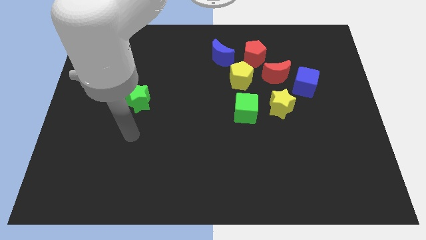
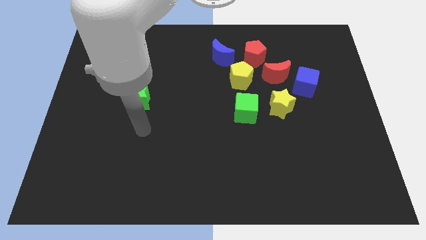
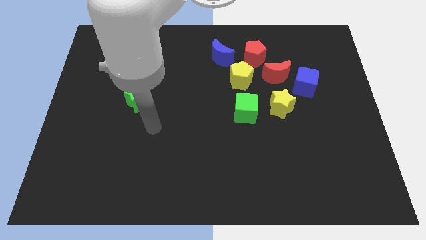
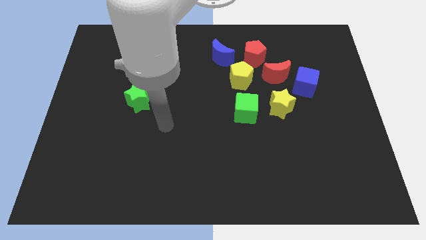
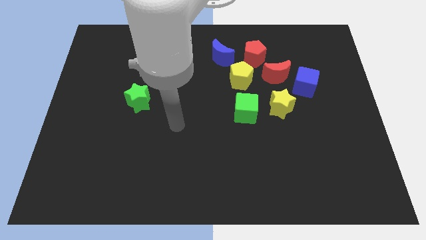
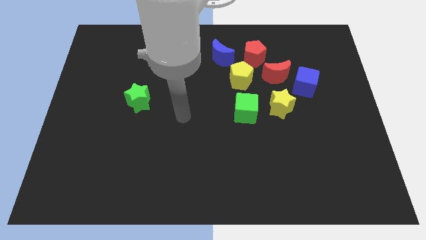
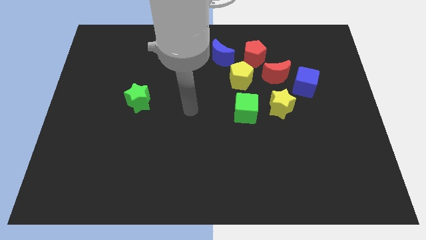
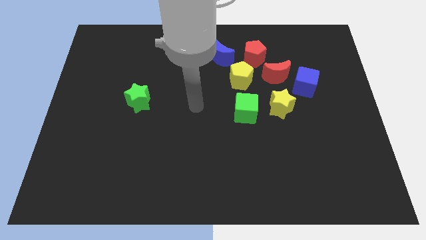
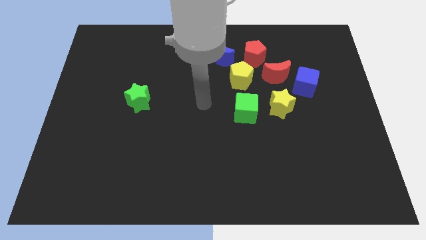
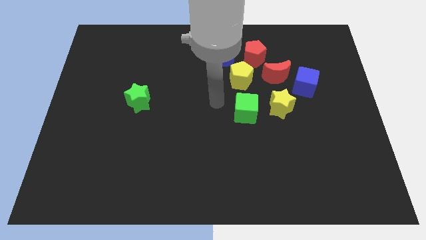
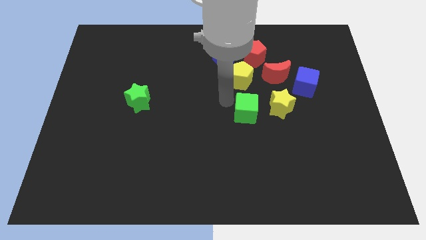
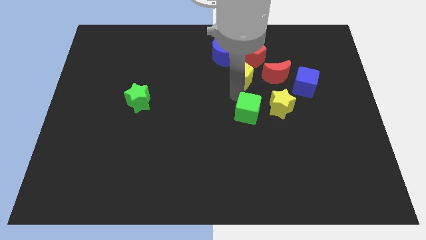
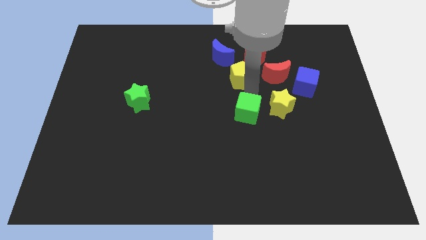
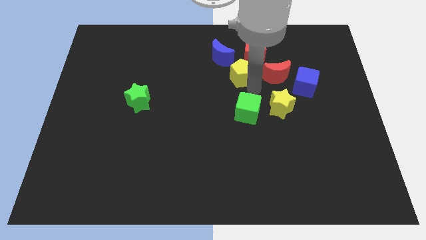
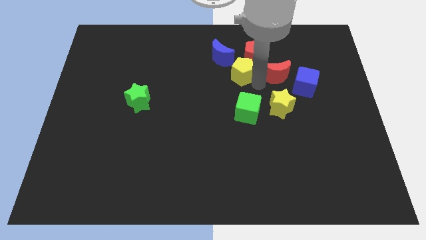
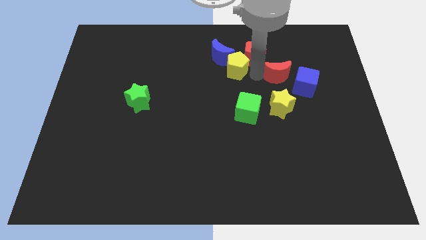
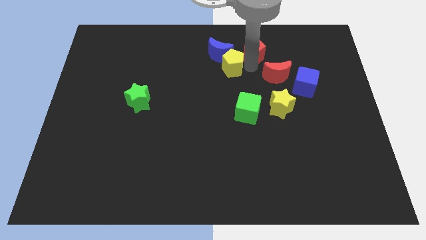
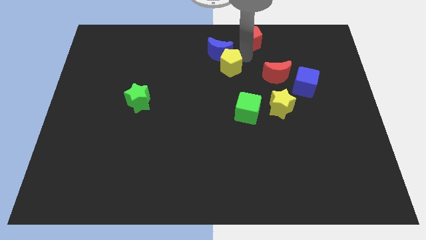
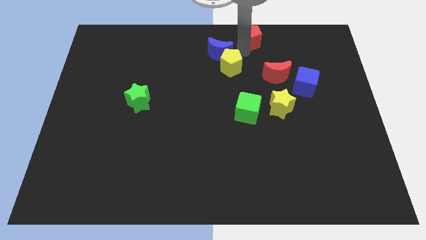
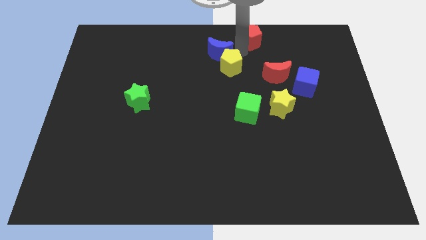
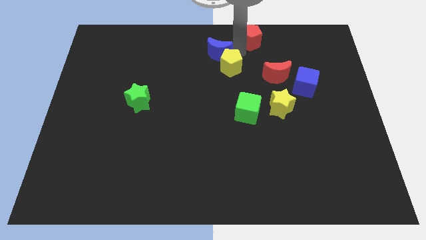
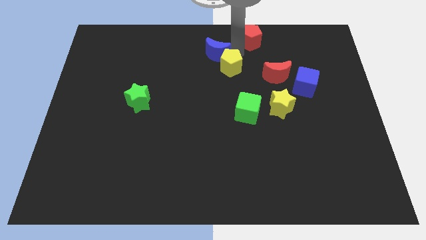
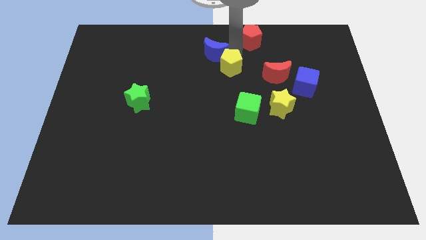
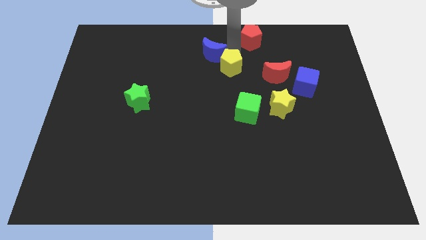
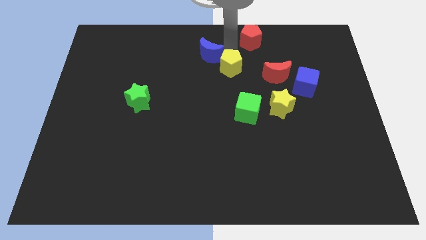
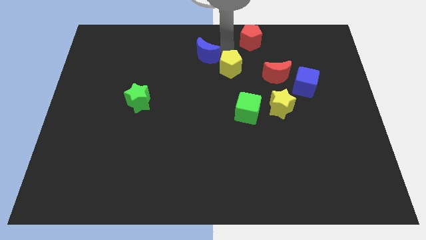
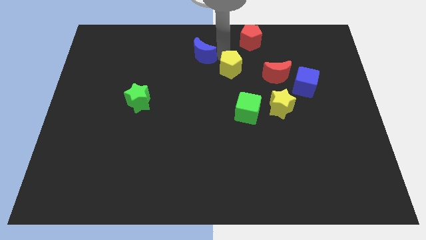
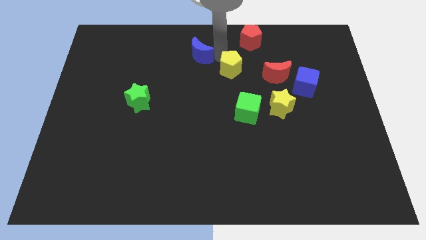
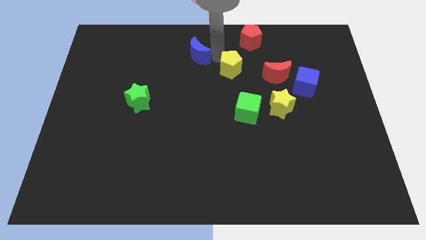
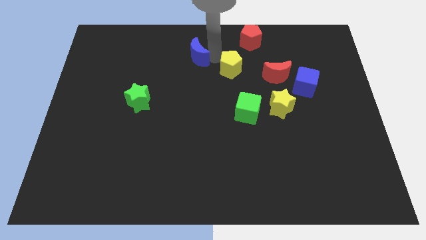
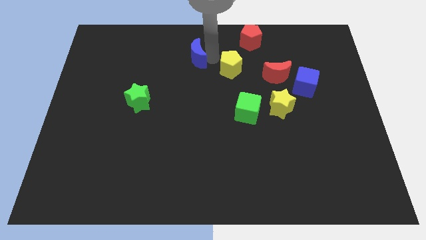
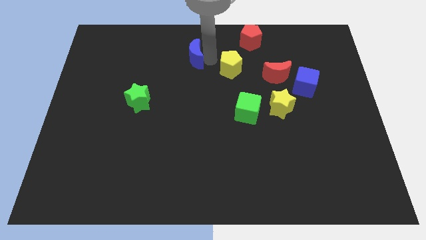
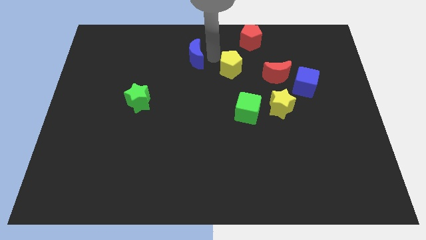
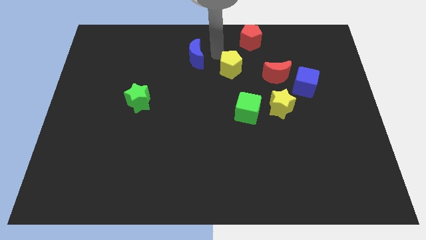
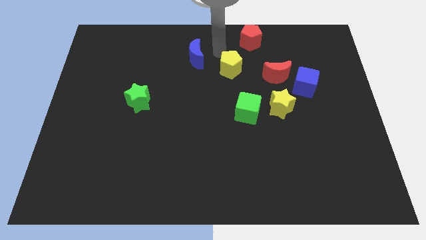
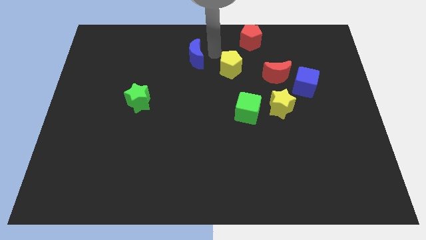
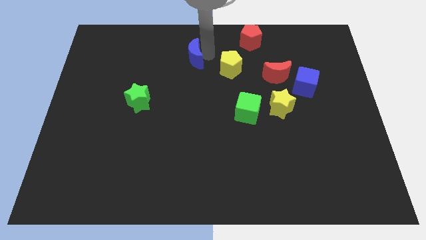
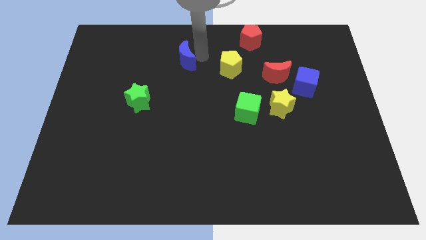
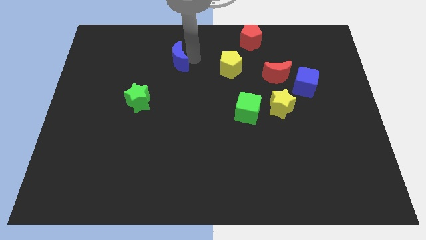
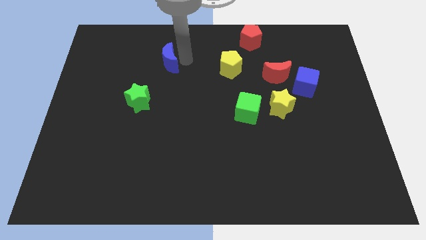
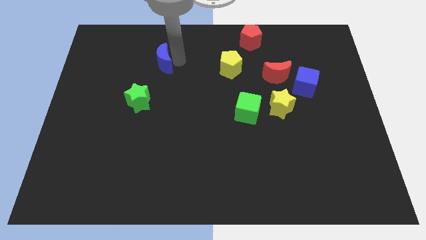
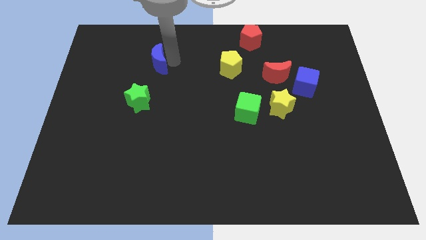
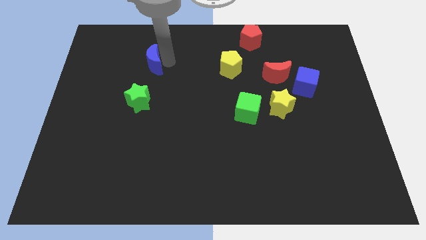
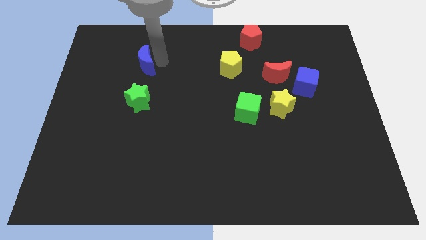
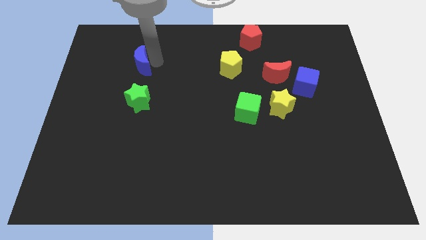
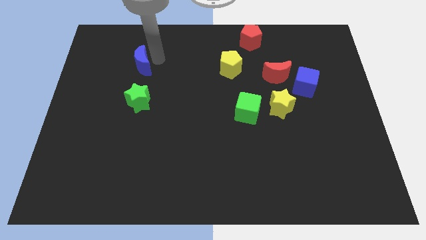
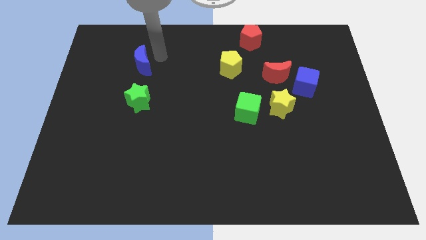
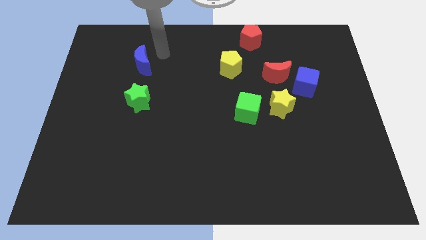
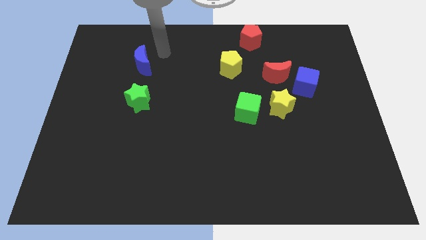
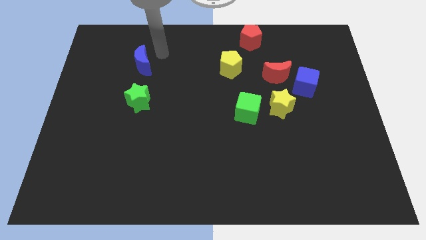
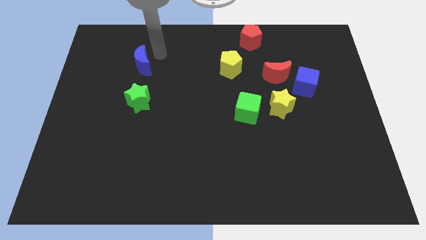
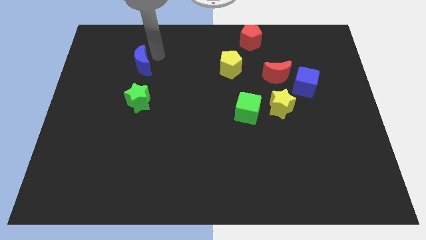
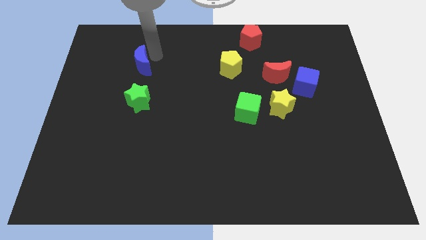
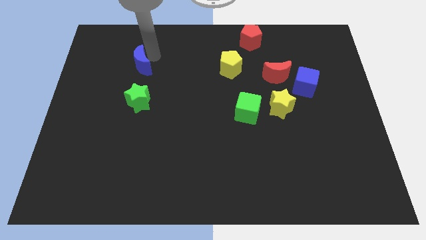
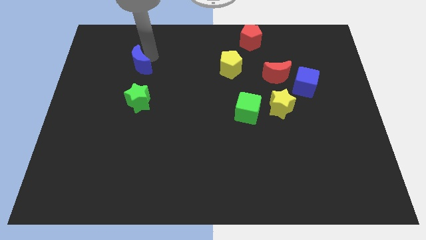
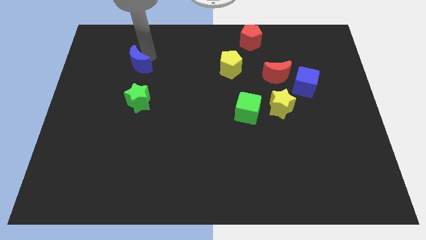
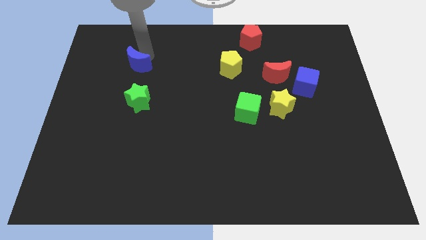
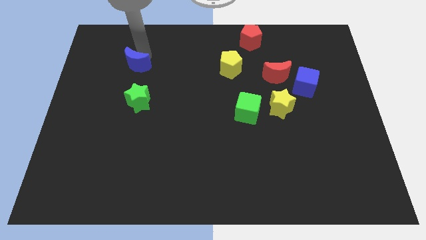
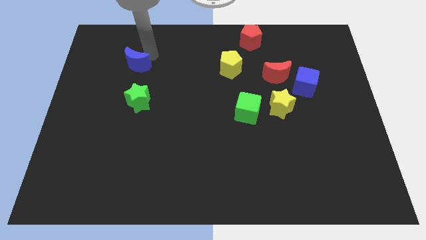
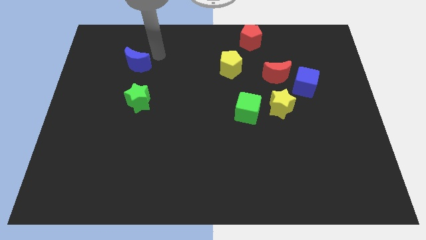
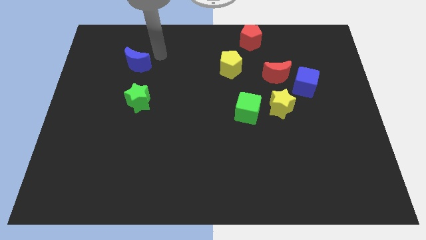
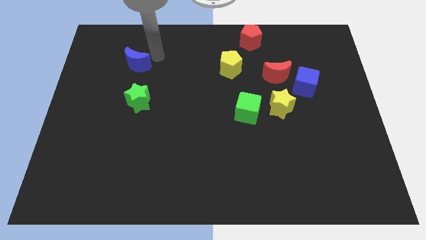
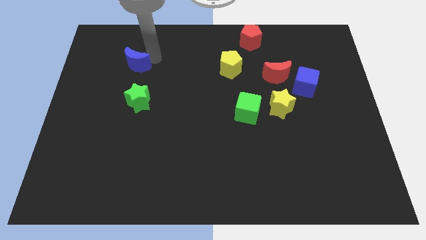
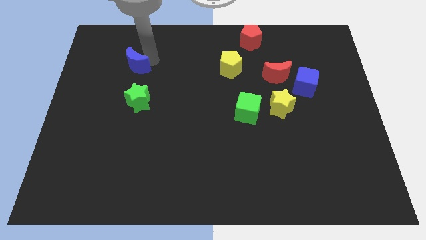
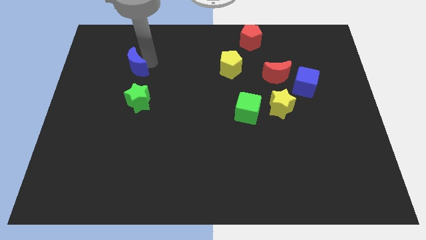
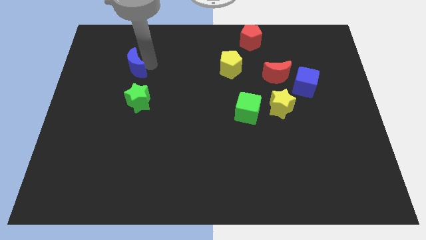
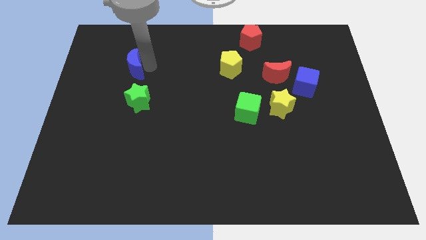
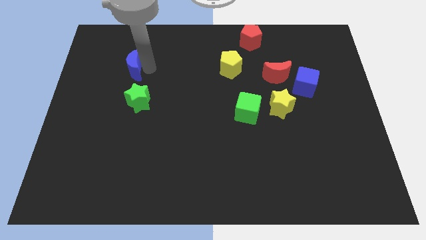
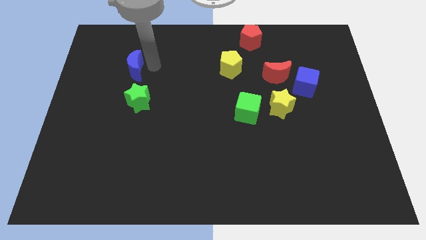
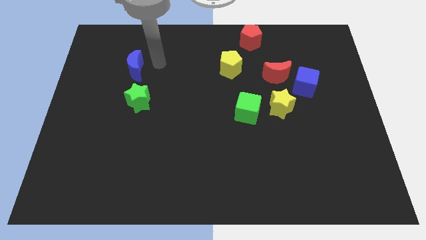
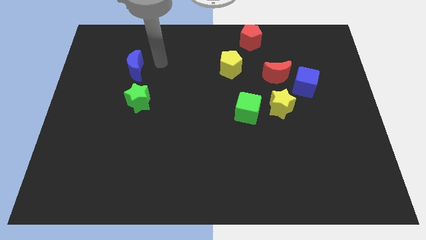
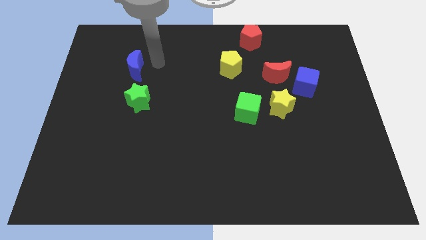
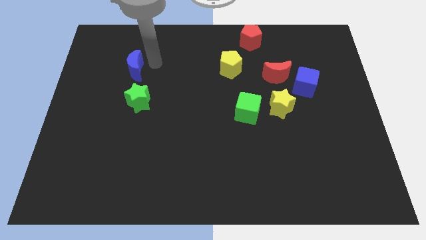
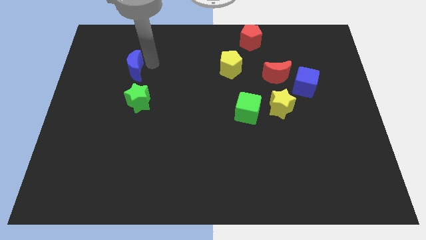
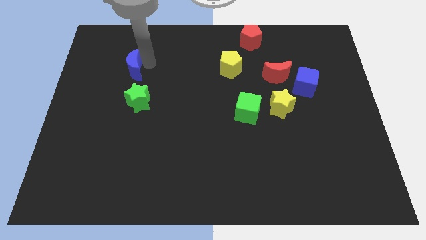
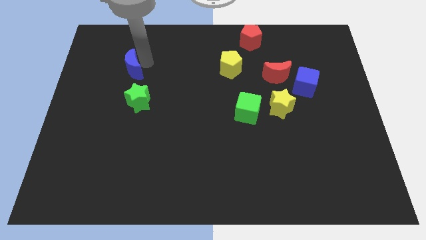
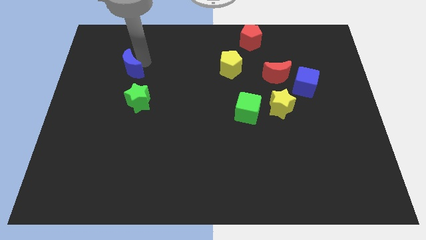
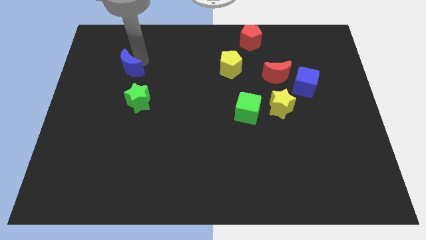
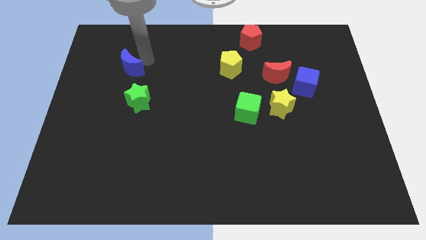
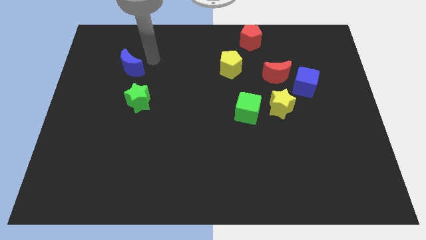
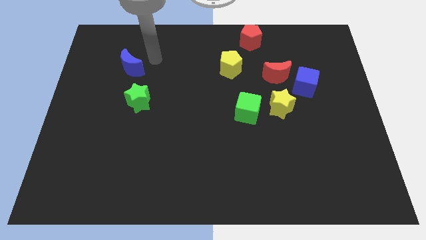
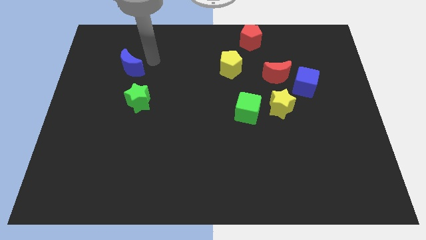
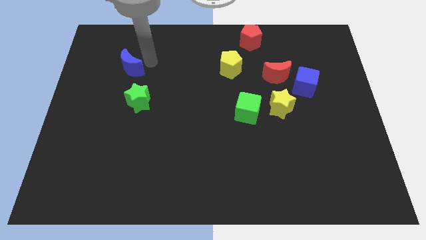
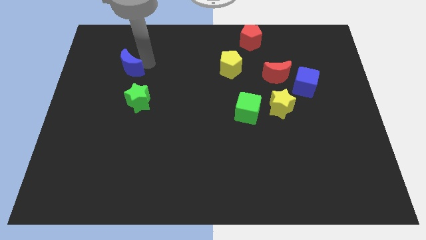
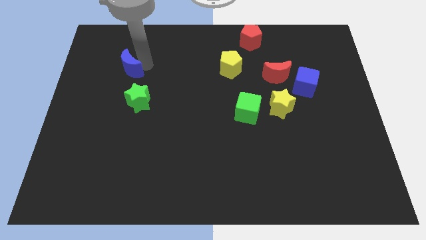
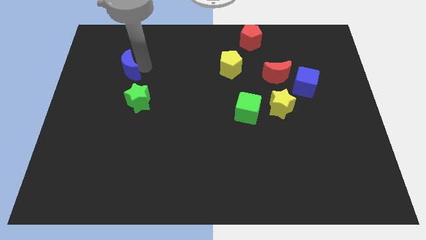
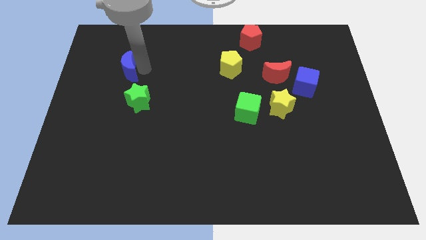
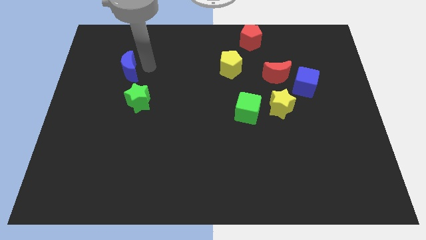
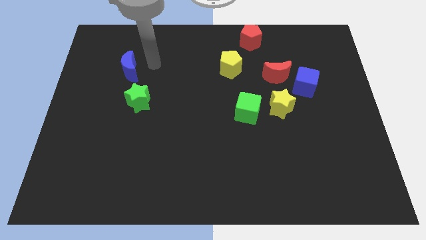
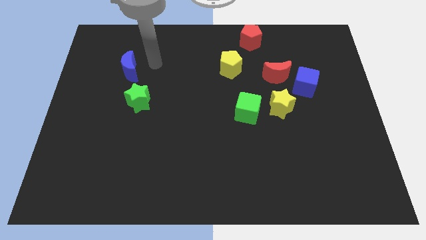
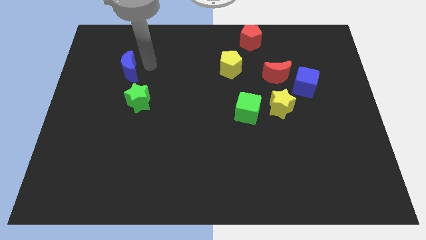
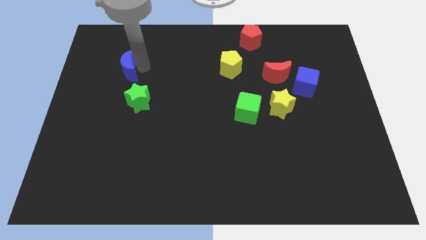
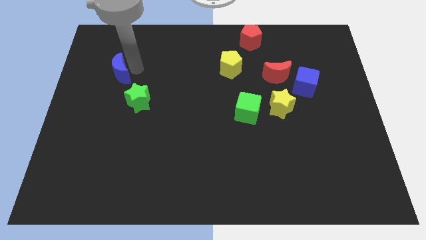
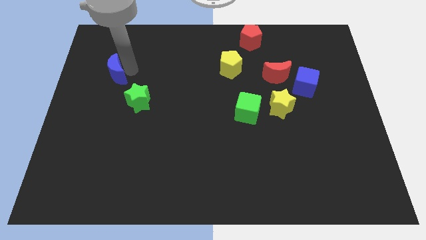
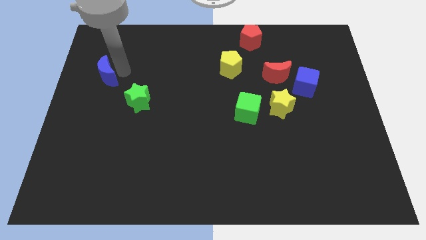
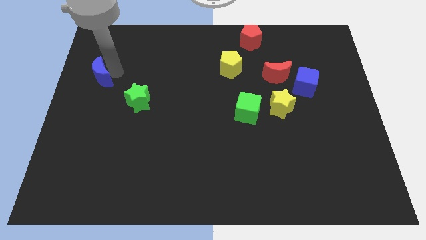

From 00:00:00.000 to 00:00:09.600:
slide the blue moon to the left side
